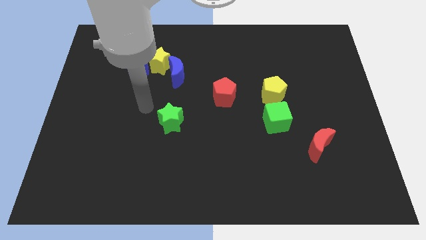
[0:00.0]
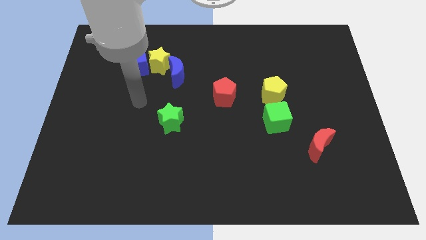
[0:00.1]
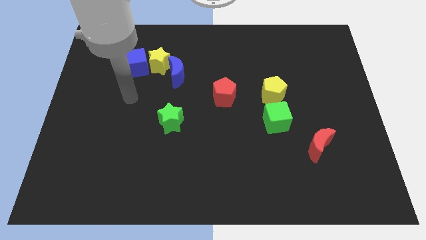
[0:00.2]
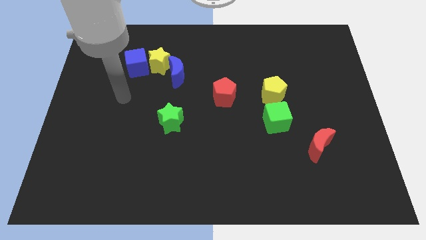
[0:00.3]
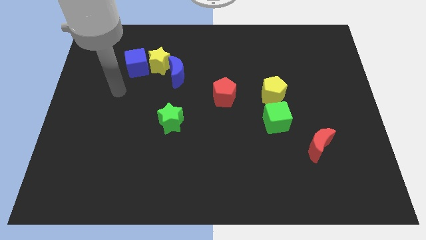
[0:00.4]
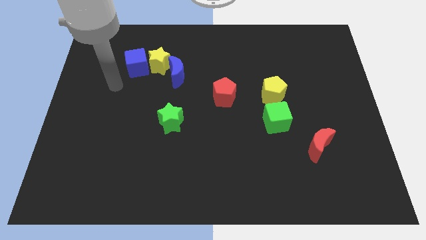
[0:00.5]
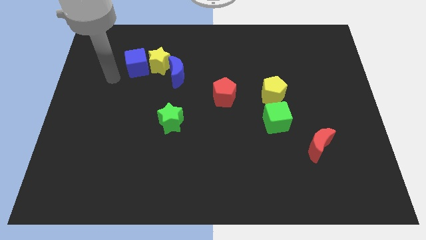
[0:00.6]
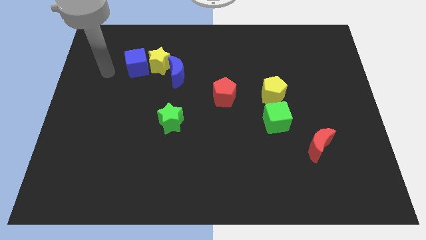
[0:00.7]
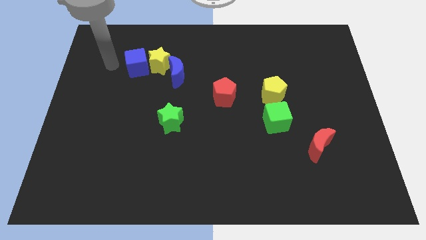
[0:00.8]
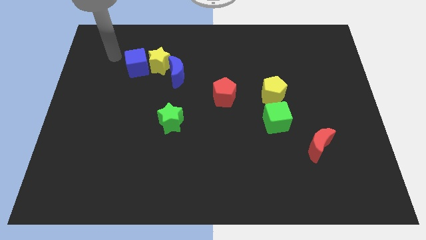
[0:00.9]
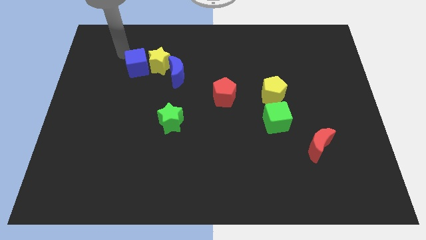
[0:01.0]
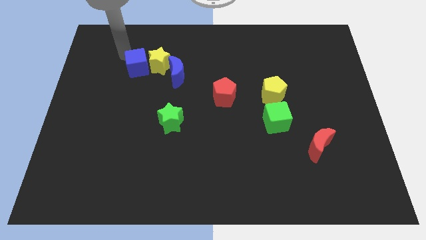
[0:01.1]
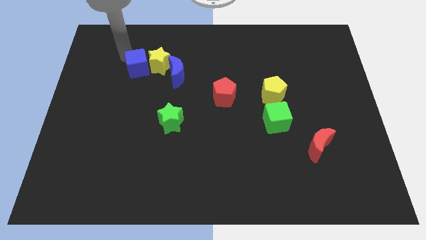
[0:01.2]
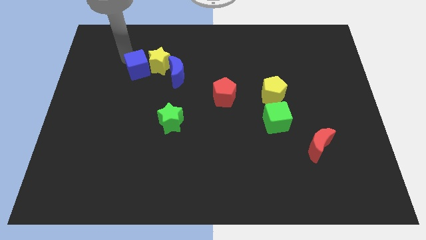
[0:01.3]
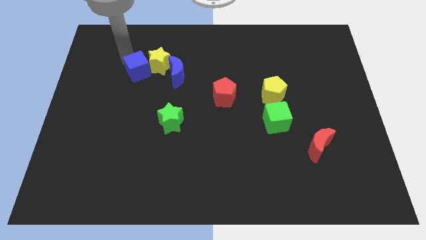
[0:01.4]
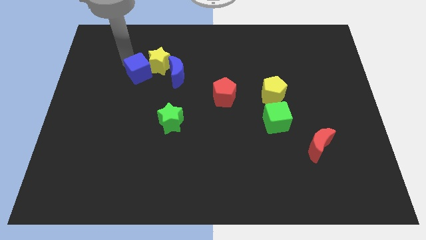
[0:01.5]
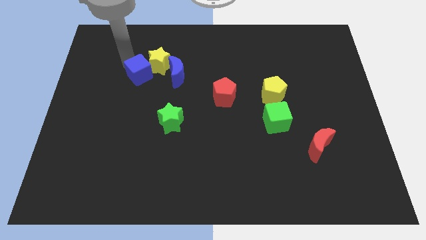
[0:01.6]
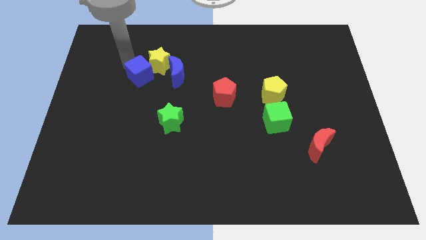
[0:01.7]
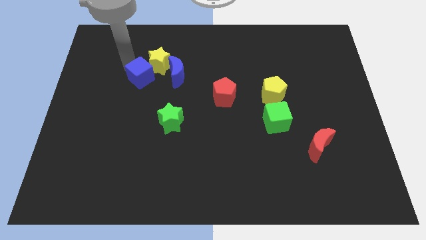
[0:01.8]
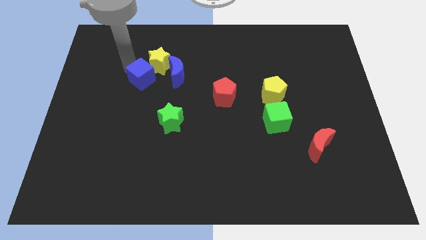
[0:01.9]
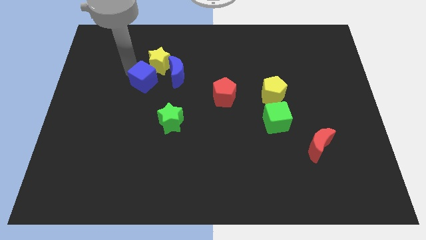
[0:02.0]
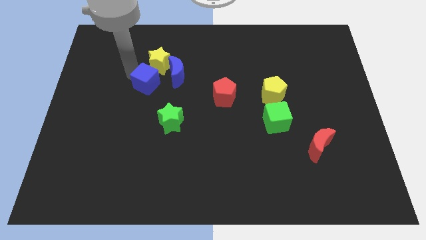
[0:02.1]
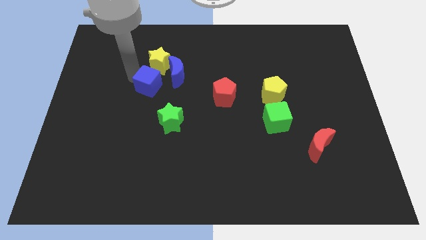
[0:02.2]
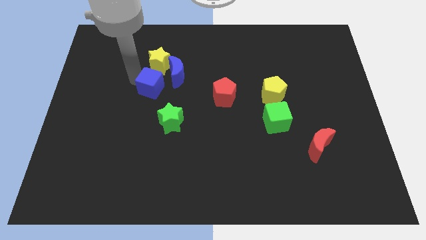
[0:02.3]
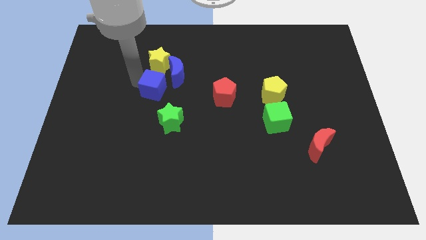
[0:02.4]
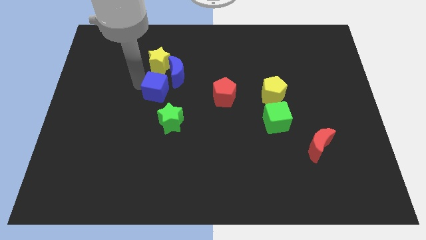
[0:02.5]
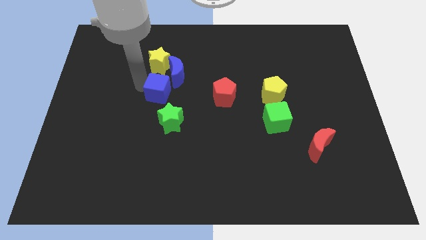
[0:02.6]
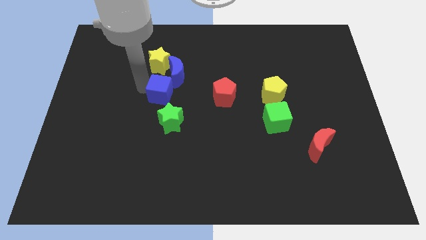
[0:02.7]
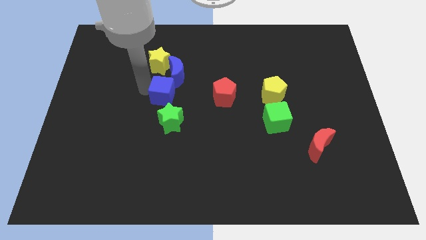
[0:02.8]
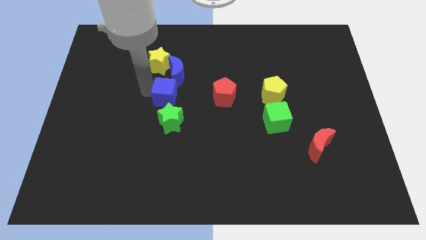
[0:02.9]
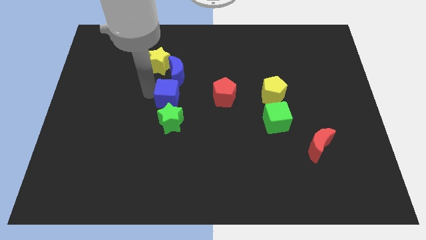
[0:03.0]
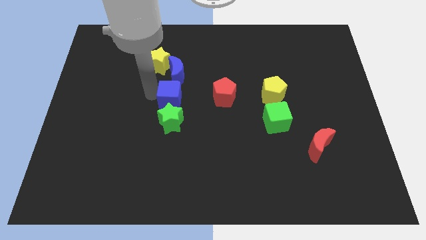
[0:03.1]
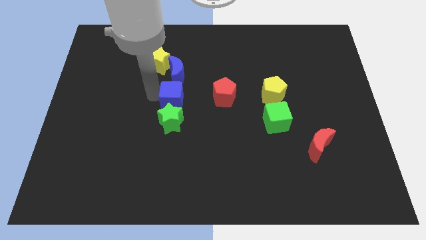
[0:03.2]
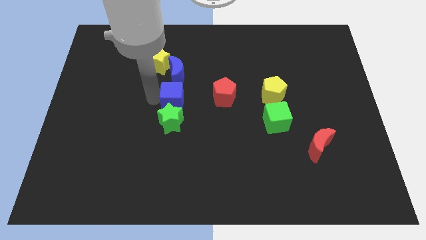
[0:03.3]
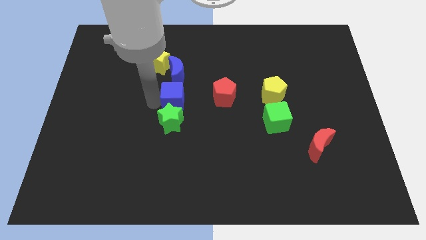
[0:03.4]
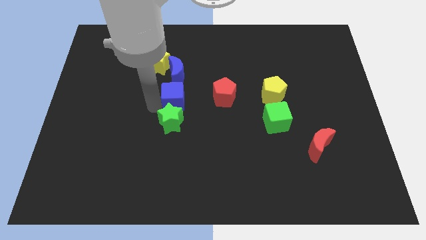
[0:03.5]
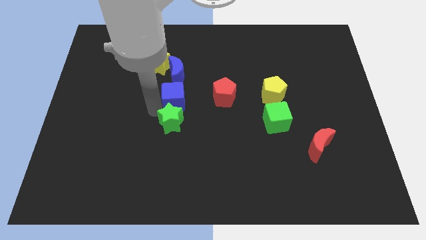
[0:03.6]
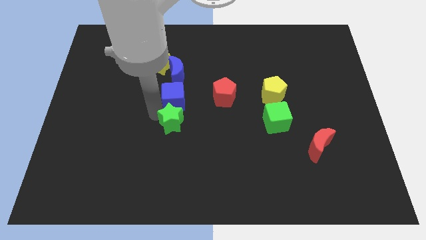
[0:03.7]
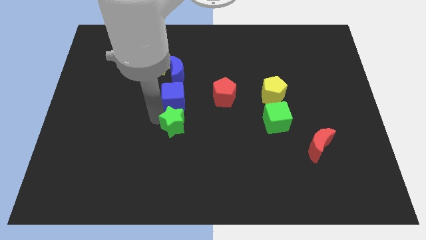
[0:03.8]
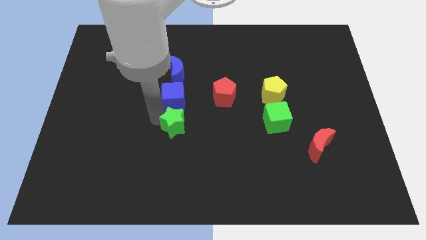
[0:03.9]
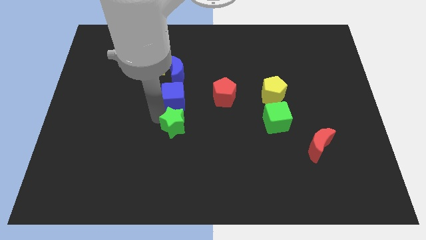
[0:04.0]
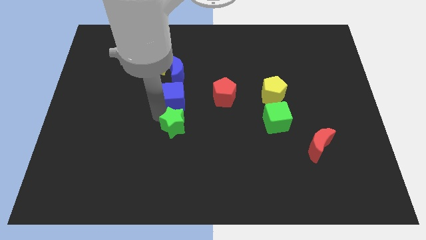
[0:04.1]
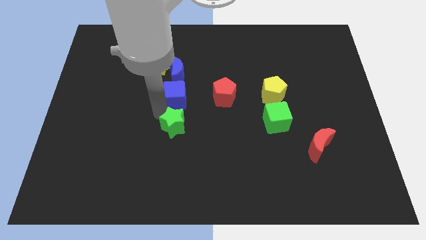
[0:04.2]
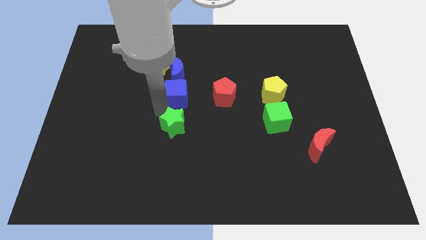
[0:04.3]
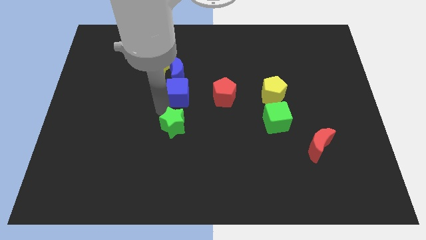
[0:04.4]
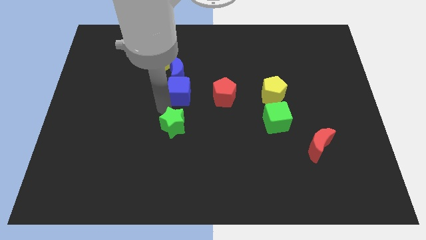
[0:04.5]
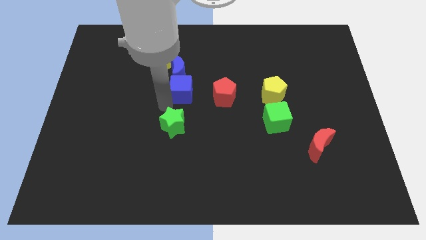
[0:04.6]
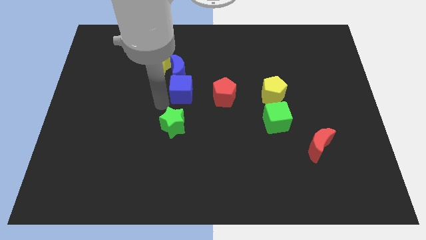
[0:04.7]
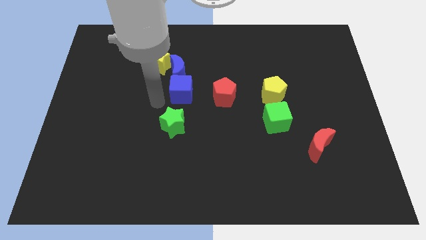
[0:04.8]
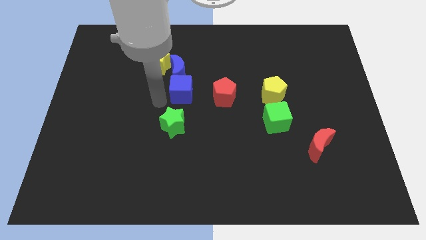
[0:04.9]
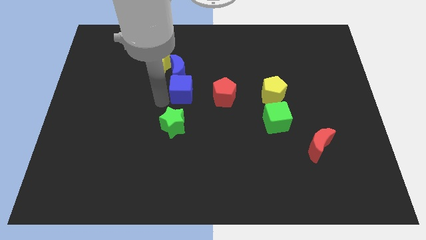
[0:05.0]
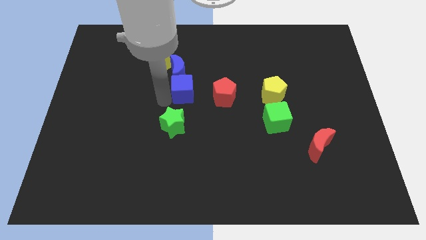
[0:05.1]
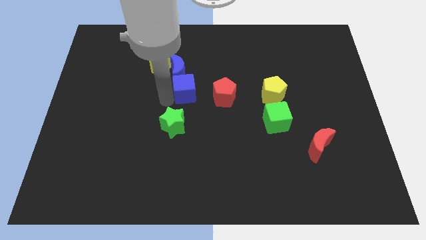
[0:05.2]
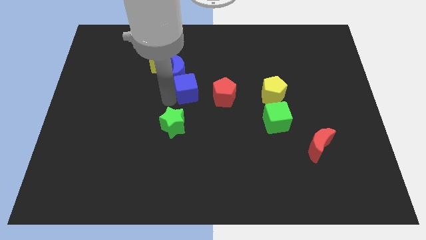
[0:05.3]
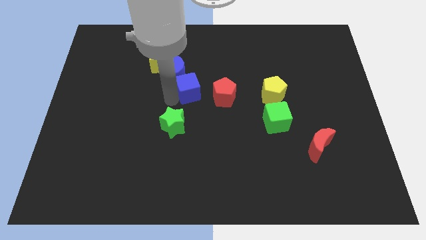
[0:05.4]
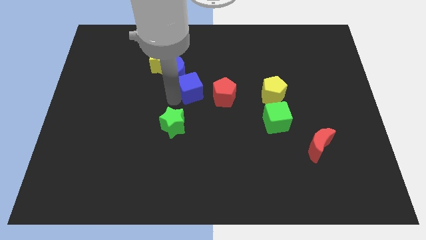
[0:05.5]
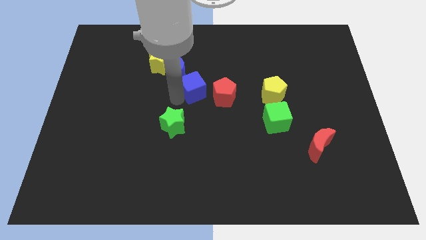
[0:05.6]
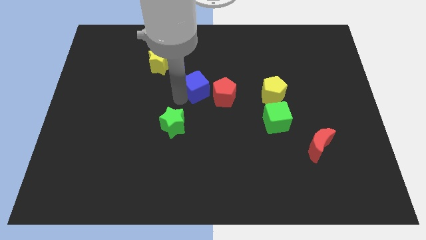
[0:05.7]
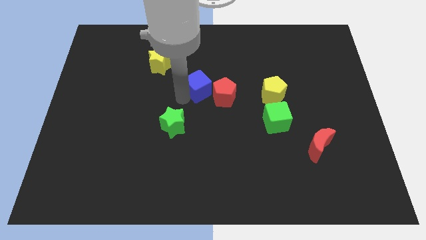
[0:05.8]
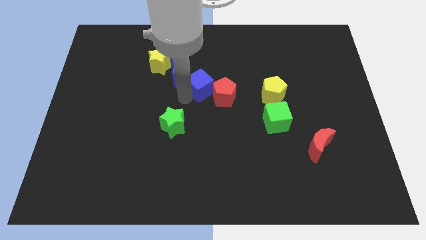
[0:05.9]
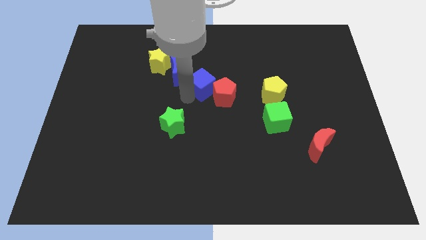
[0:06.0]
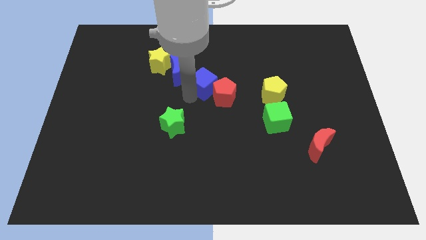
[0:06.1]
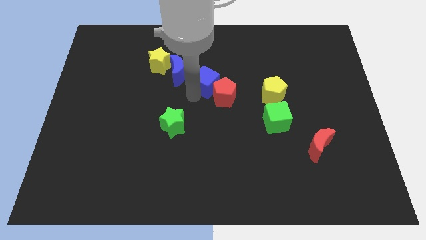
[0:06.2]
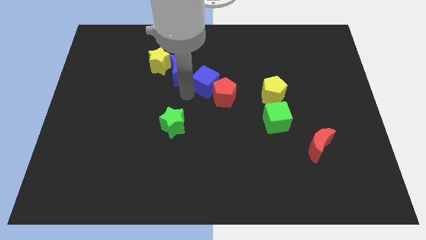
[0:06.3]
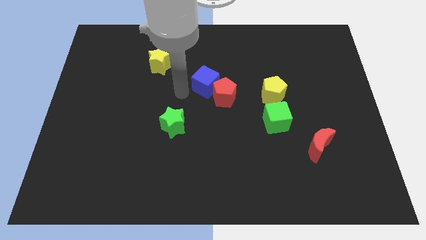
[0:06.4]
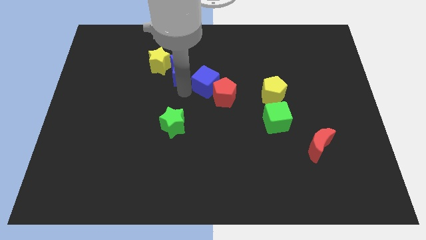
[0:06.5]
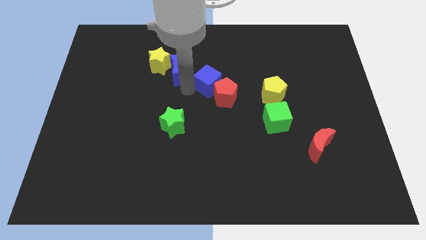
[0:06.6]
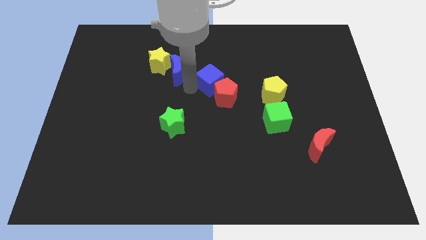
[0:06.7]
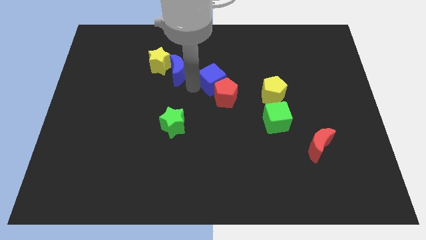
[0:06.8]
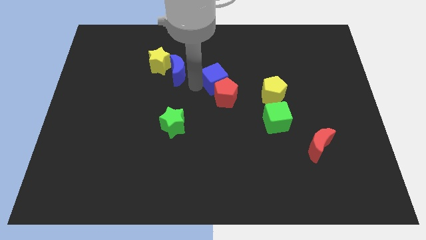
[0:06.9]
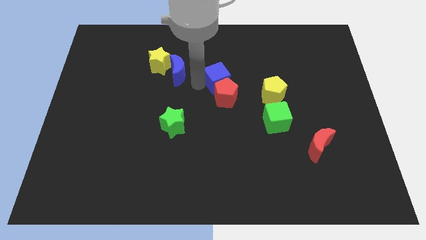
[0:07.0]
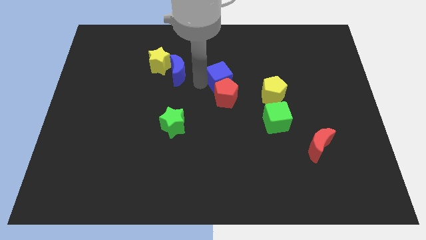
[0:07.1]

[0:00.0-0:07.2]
slide the blue cube to the right

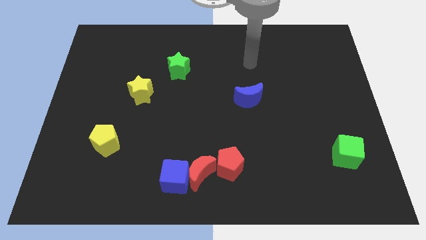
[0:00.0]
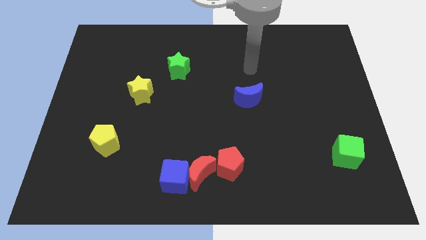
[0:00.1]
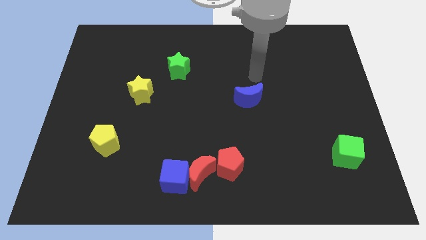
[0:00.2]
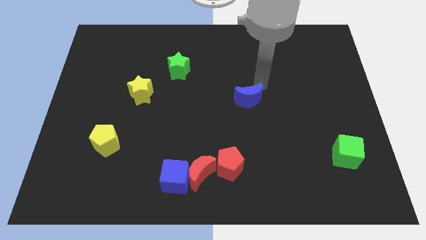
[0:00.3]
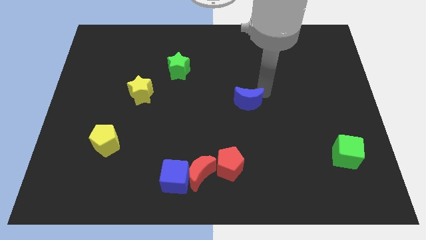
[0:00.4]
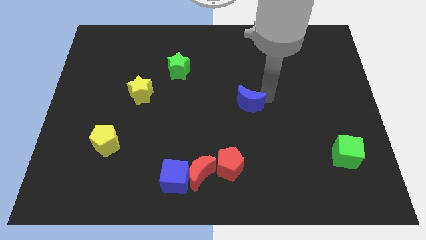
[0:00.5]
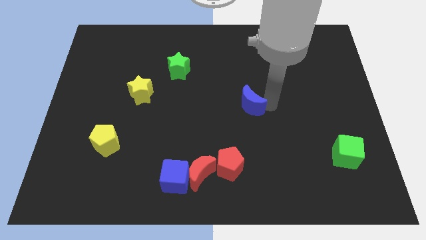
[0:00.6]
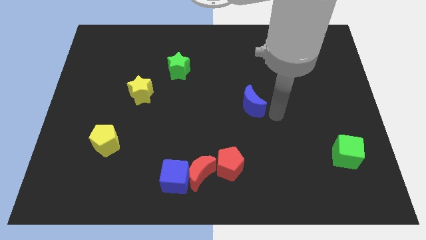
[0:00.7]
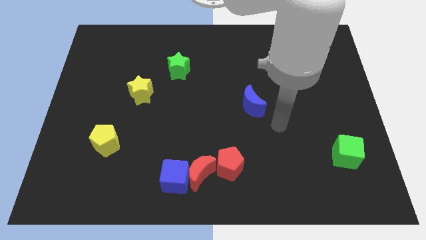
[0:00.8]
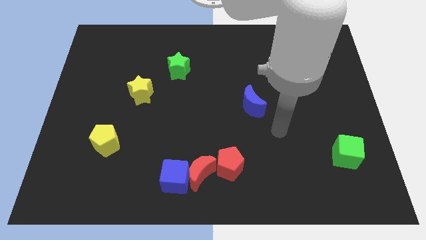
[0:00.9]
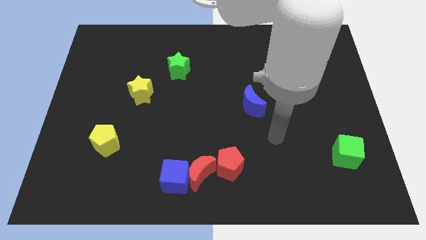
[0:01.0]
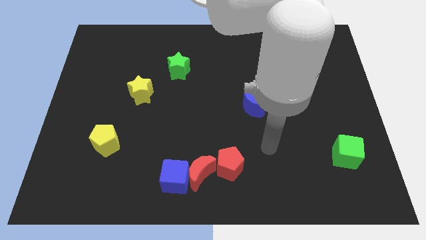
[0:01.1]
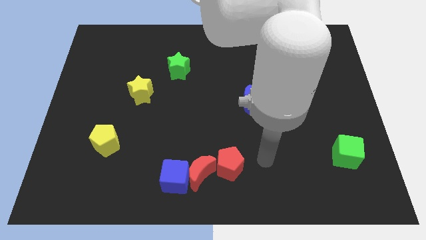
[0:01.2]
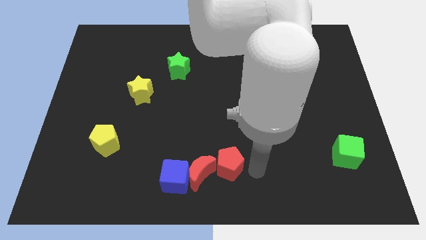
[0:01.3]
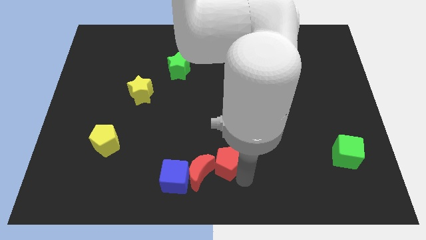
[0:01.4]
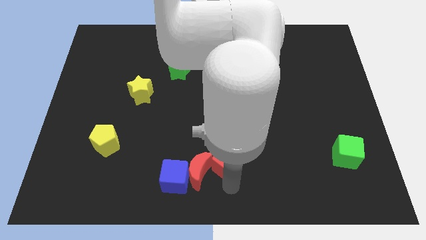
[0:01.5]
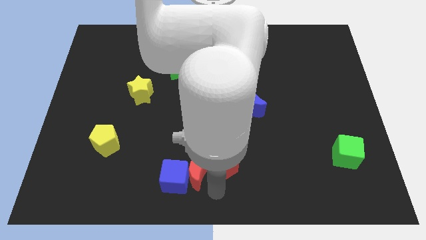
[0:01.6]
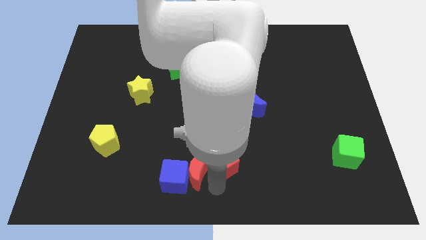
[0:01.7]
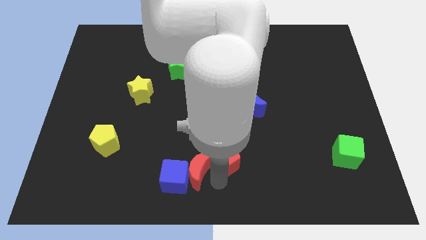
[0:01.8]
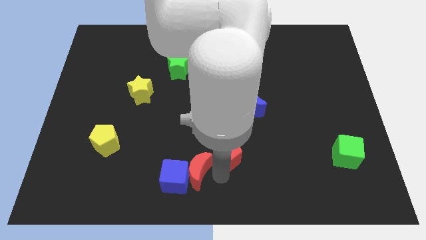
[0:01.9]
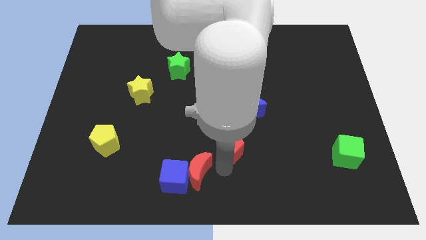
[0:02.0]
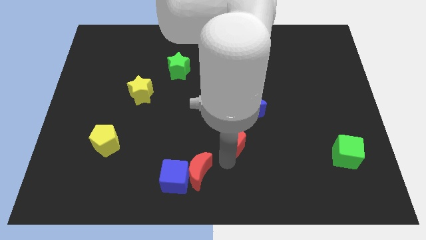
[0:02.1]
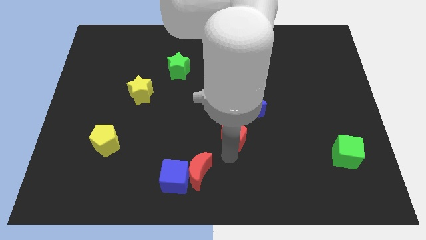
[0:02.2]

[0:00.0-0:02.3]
slightly slide the red pentagon upwards
